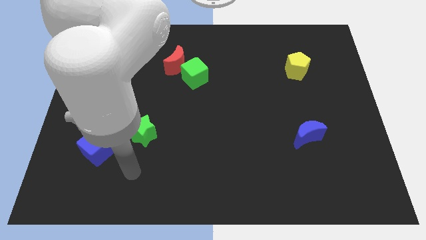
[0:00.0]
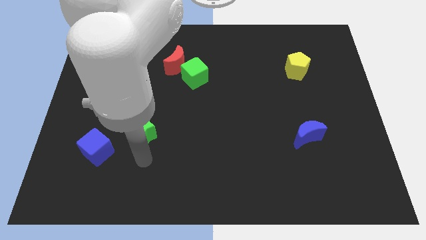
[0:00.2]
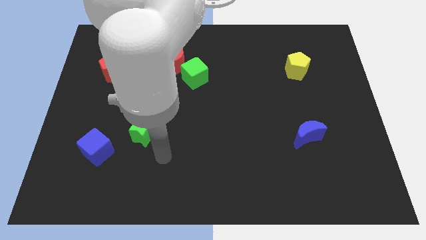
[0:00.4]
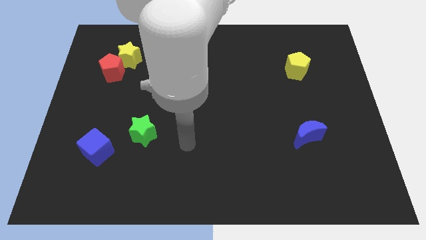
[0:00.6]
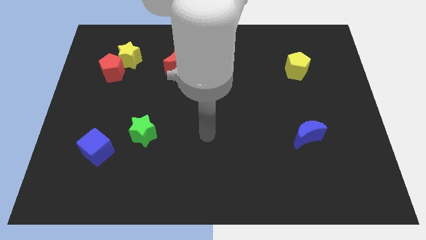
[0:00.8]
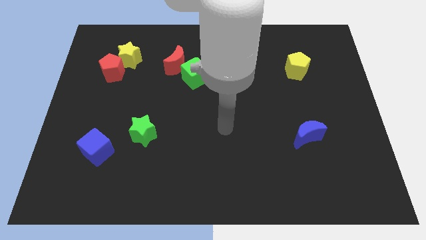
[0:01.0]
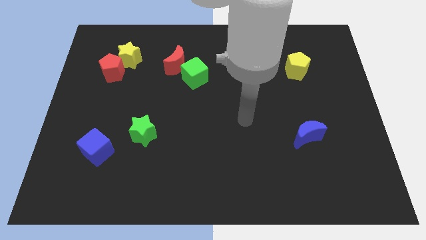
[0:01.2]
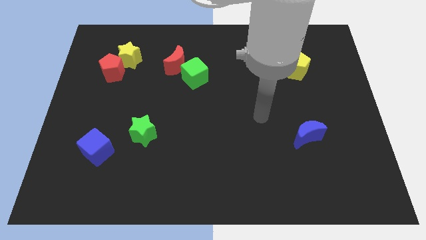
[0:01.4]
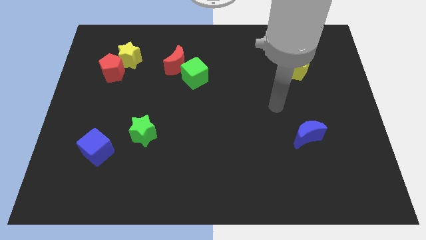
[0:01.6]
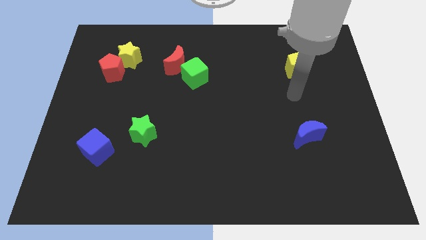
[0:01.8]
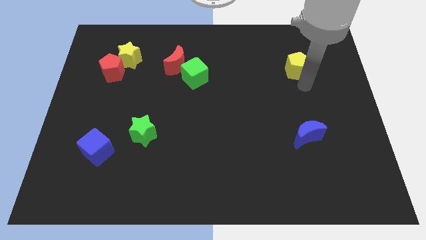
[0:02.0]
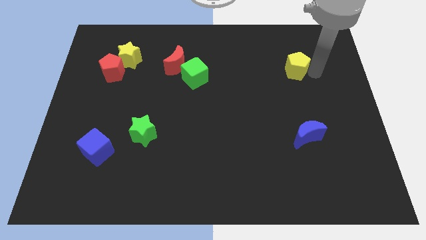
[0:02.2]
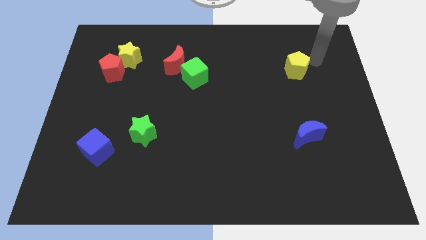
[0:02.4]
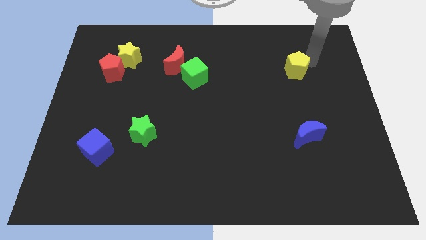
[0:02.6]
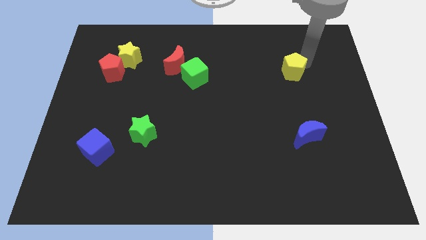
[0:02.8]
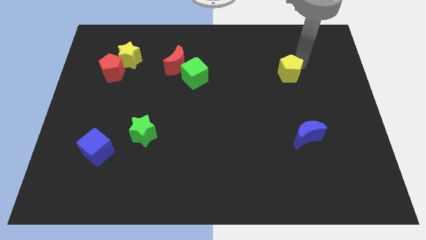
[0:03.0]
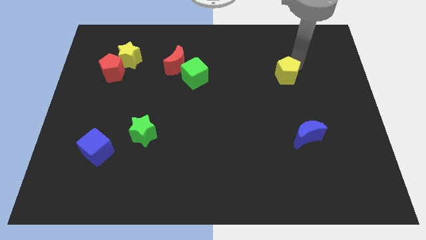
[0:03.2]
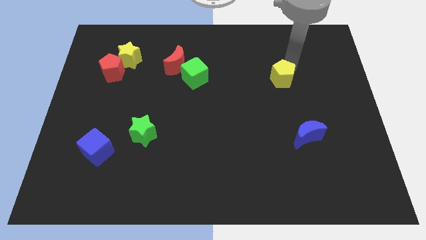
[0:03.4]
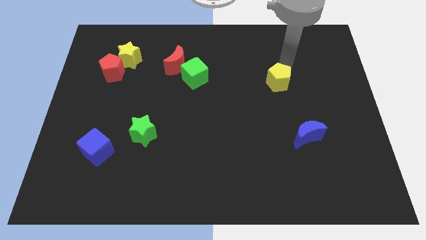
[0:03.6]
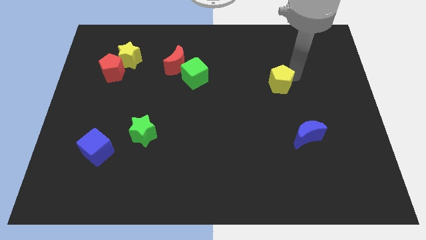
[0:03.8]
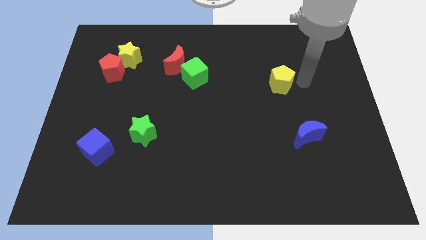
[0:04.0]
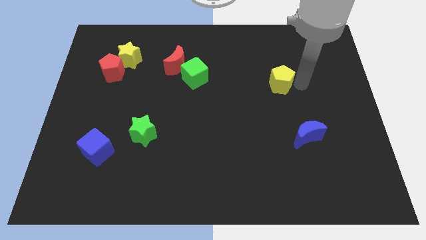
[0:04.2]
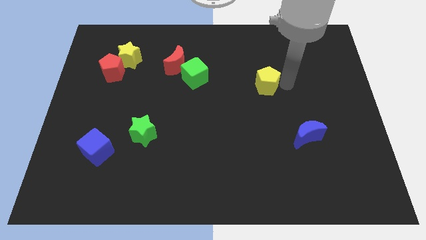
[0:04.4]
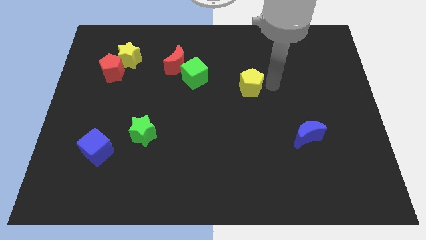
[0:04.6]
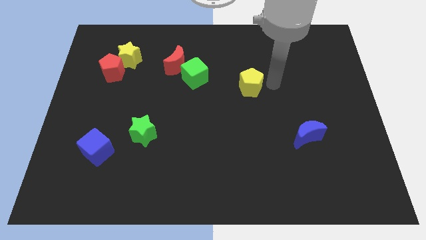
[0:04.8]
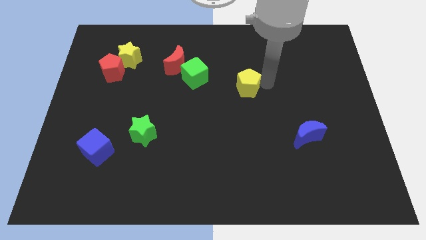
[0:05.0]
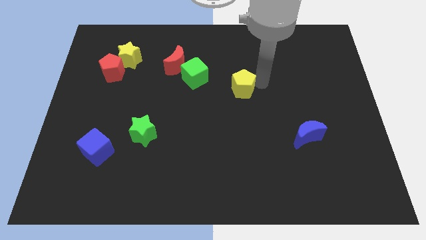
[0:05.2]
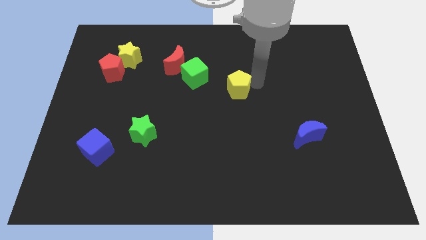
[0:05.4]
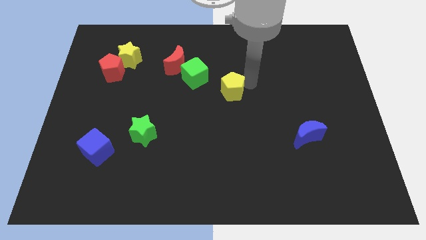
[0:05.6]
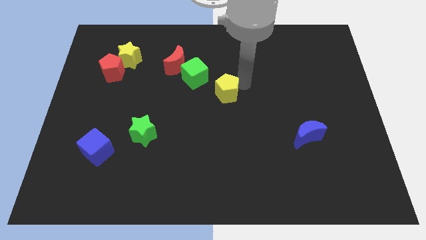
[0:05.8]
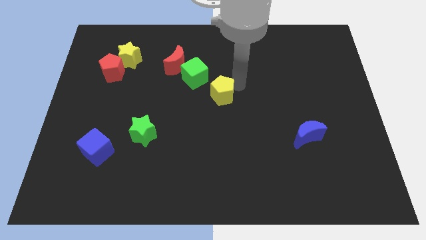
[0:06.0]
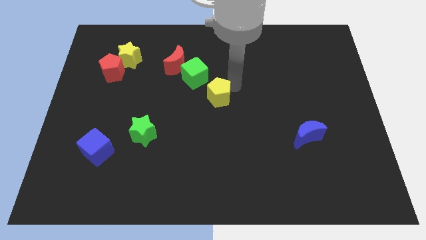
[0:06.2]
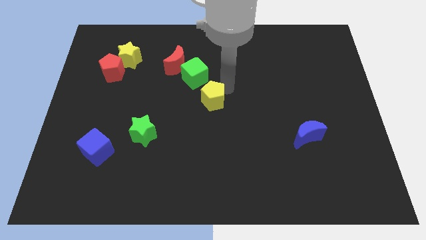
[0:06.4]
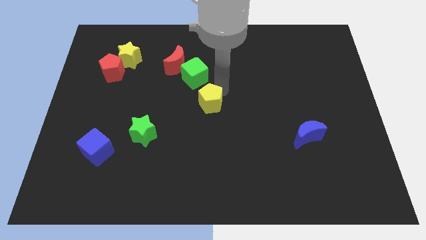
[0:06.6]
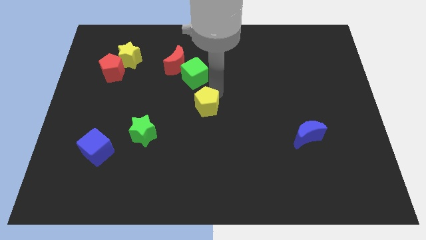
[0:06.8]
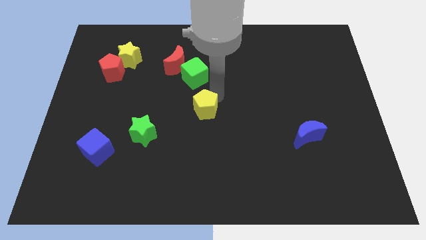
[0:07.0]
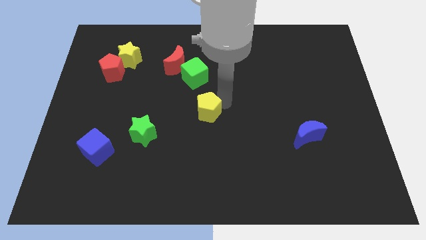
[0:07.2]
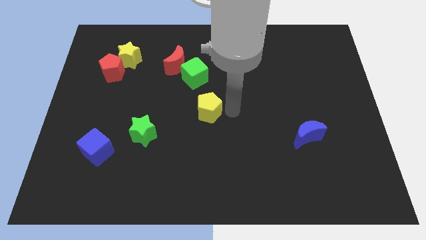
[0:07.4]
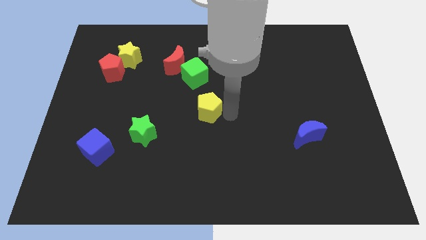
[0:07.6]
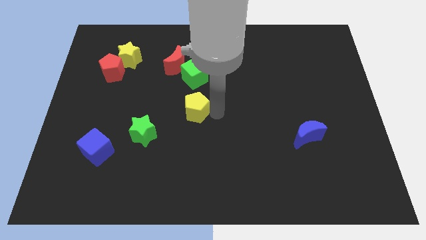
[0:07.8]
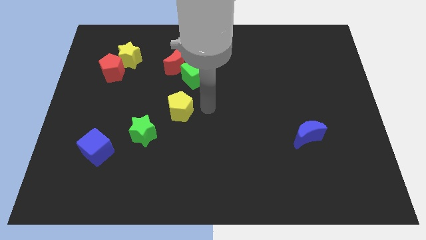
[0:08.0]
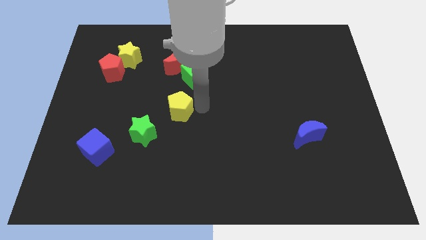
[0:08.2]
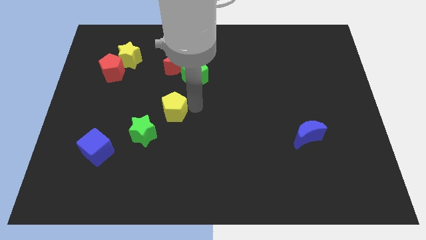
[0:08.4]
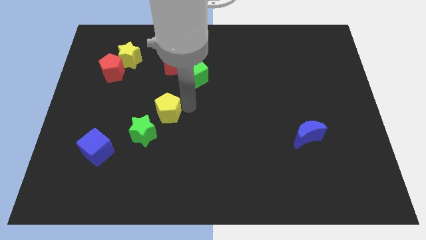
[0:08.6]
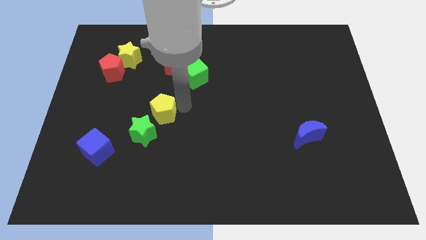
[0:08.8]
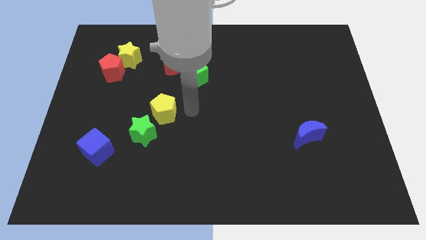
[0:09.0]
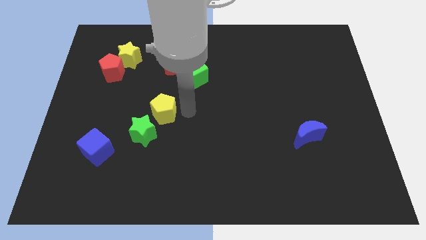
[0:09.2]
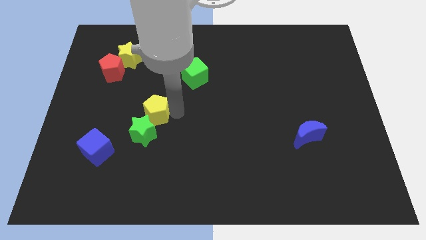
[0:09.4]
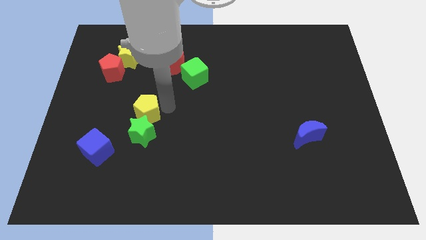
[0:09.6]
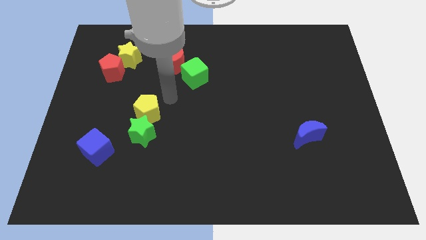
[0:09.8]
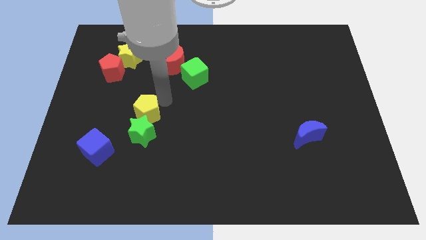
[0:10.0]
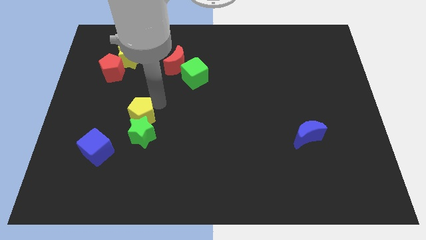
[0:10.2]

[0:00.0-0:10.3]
put the yellow pentagon to the top right side of the blue cube

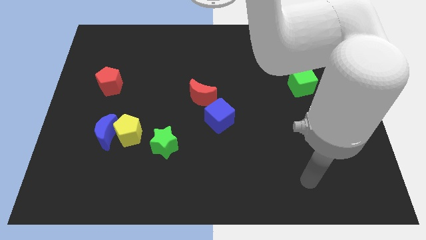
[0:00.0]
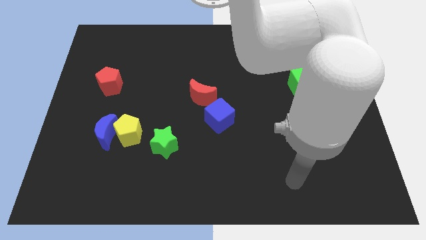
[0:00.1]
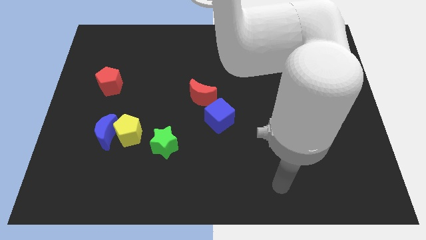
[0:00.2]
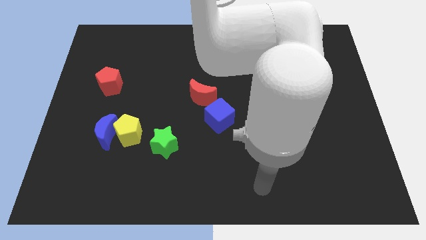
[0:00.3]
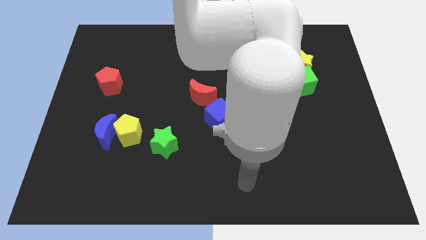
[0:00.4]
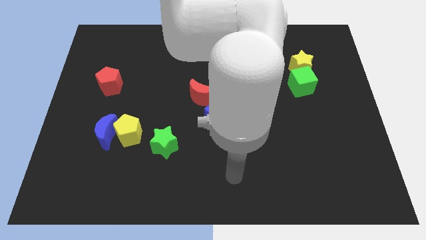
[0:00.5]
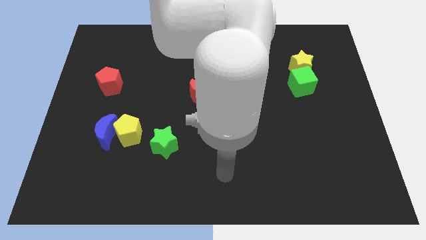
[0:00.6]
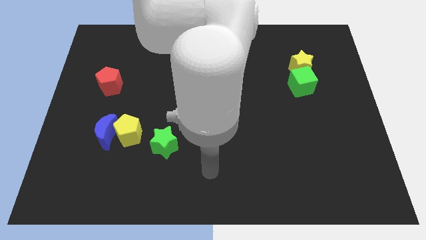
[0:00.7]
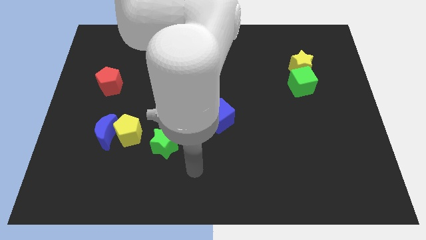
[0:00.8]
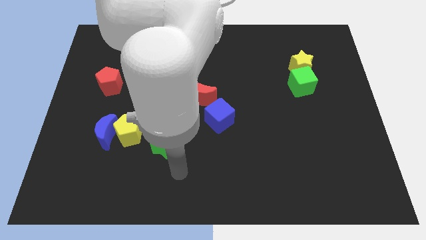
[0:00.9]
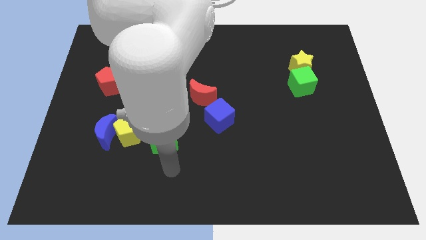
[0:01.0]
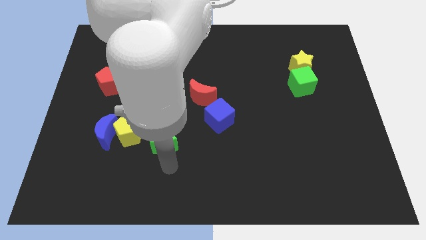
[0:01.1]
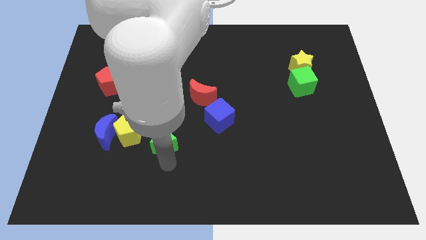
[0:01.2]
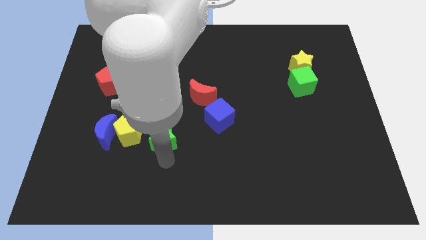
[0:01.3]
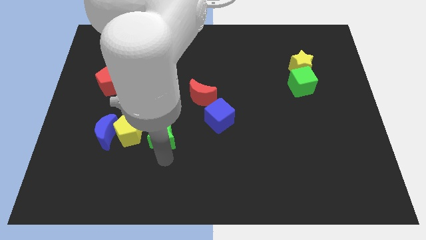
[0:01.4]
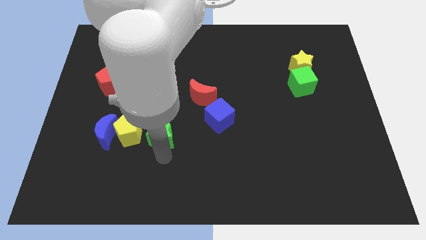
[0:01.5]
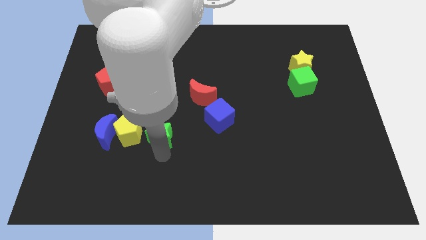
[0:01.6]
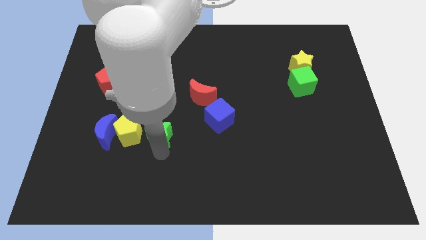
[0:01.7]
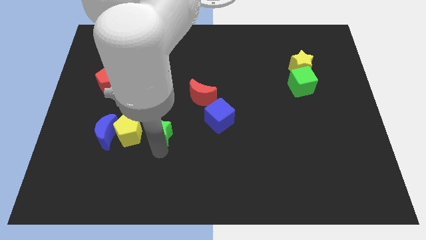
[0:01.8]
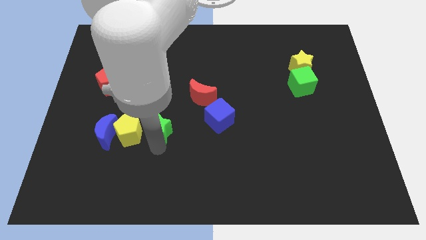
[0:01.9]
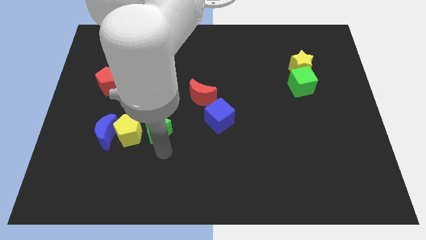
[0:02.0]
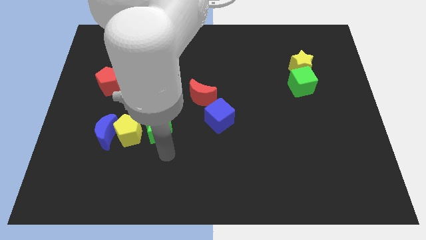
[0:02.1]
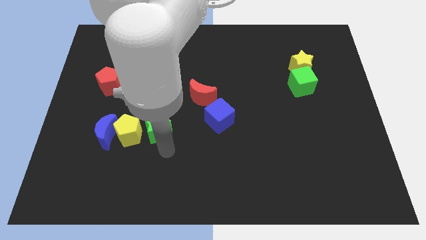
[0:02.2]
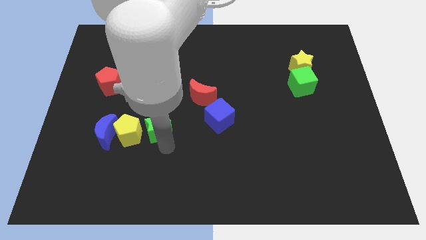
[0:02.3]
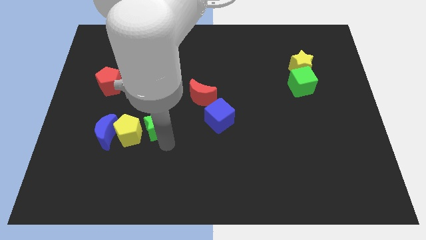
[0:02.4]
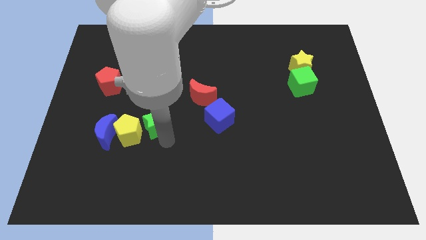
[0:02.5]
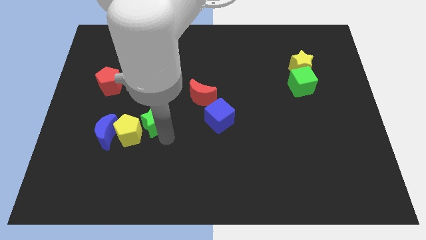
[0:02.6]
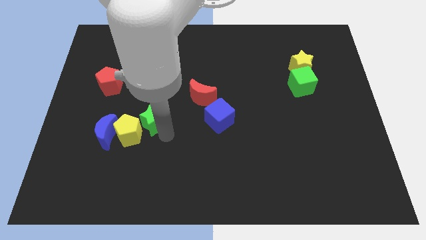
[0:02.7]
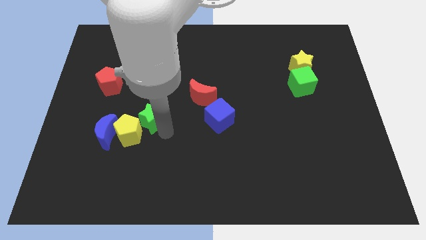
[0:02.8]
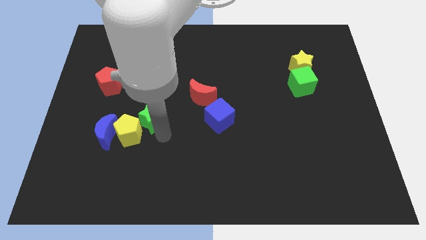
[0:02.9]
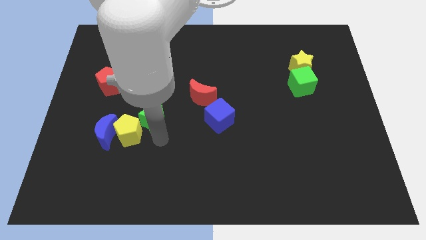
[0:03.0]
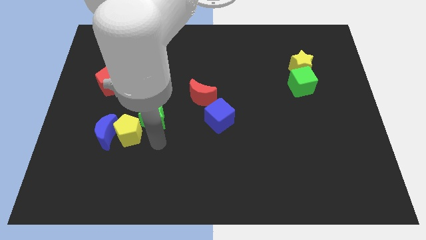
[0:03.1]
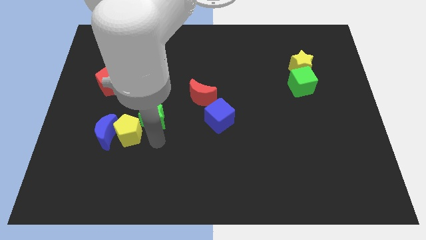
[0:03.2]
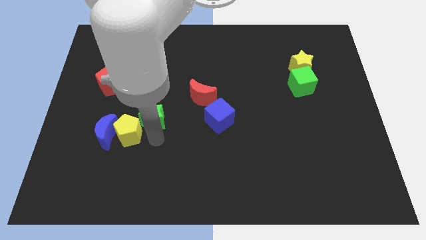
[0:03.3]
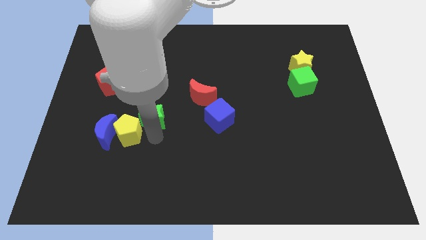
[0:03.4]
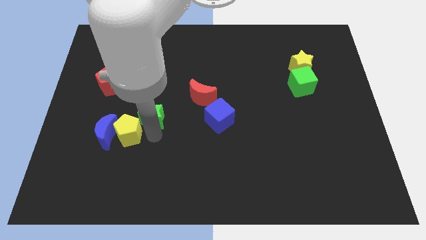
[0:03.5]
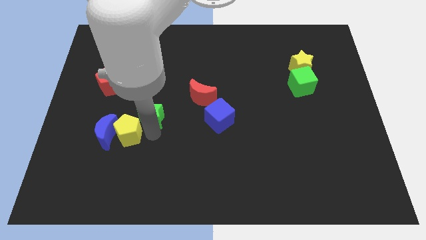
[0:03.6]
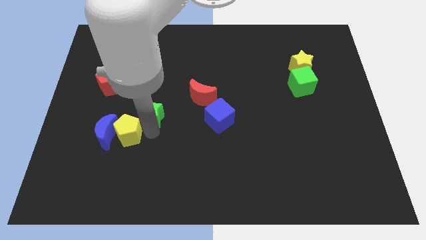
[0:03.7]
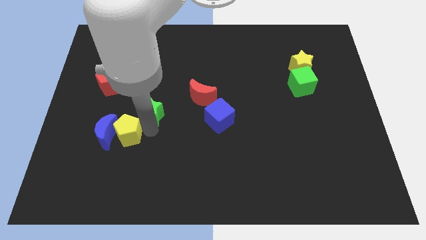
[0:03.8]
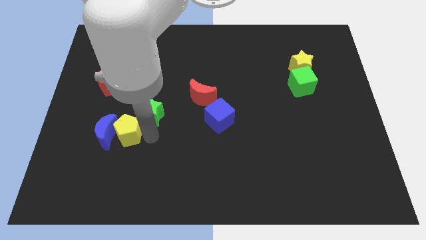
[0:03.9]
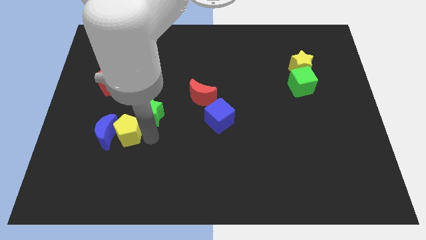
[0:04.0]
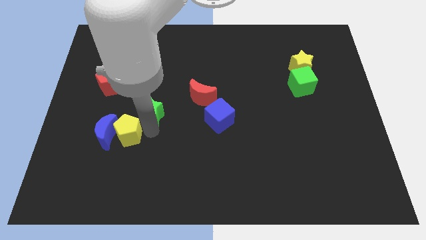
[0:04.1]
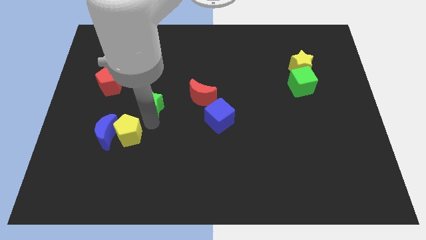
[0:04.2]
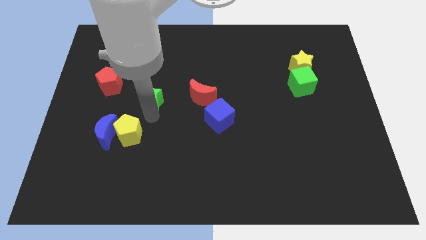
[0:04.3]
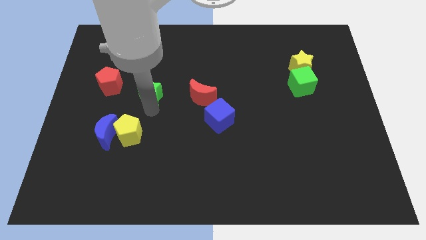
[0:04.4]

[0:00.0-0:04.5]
put the green star to the right side of the red pentagon
